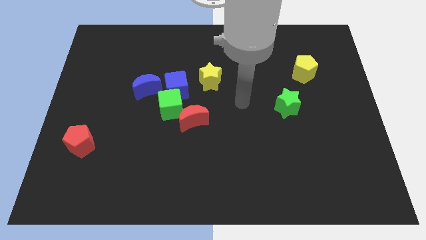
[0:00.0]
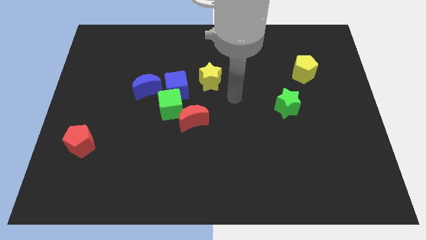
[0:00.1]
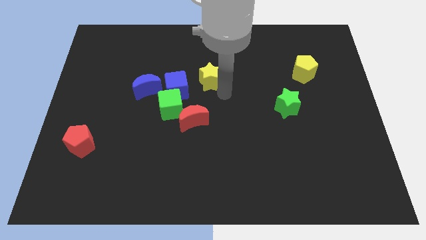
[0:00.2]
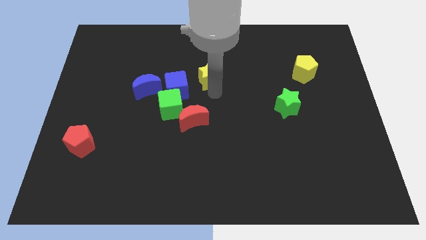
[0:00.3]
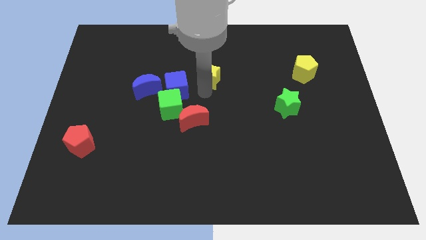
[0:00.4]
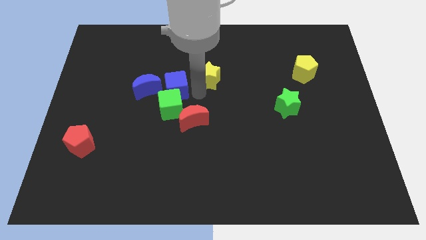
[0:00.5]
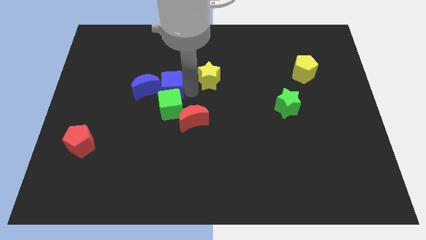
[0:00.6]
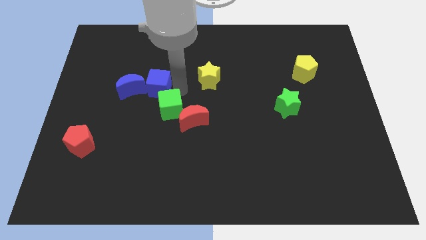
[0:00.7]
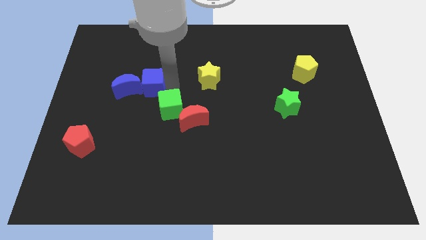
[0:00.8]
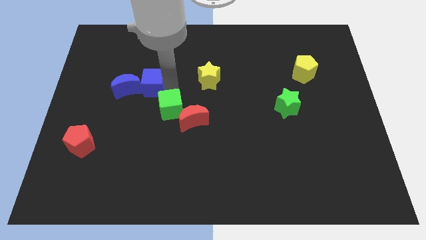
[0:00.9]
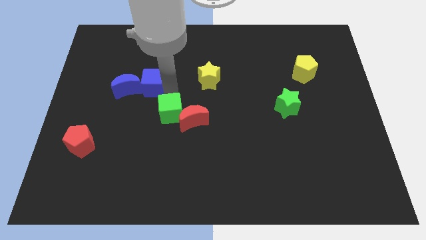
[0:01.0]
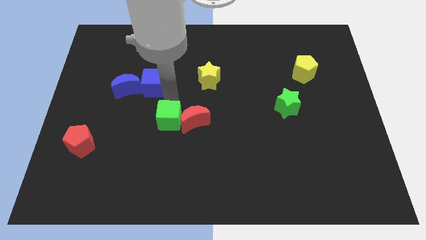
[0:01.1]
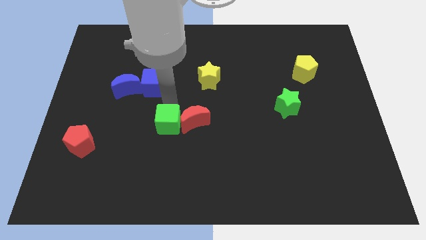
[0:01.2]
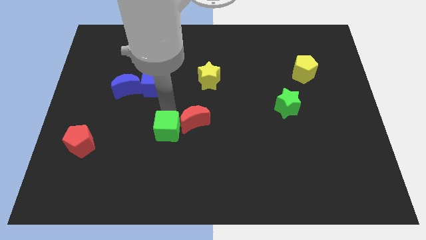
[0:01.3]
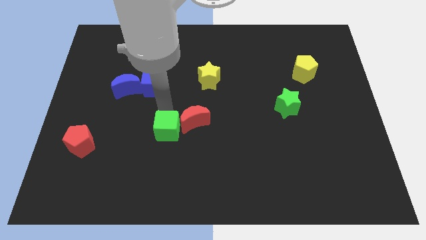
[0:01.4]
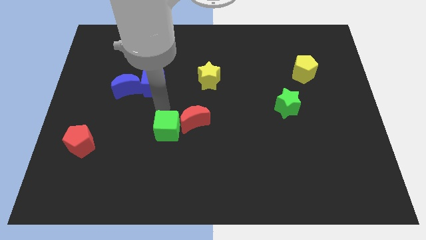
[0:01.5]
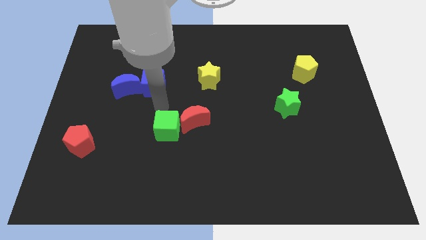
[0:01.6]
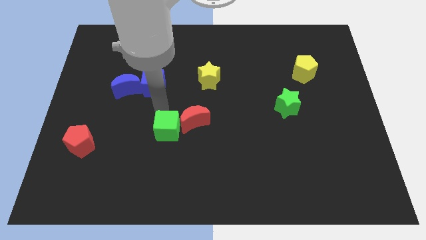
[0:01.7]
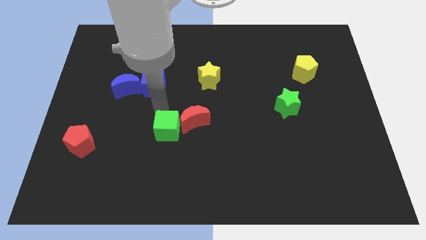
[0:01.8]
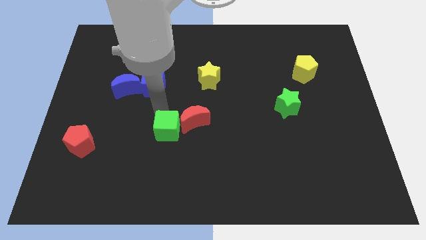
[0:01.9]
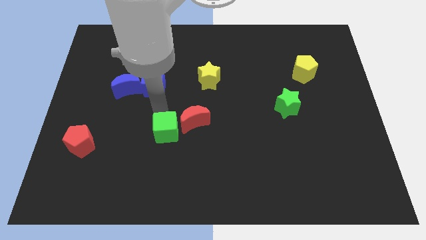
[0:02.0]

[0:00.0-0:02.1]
pull the green cube apart from the group

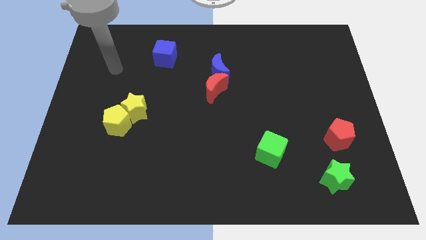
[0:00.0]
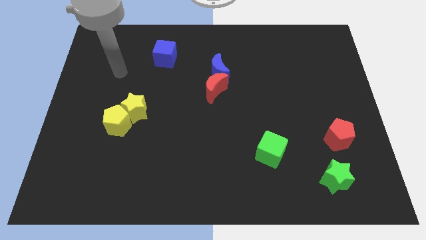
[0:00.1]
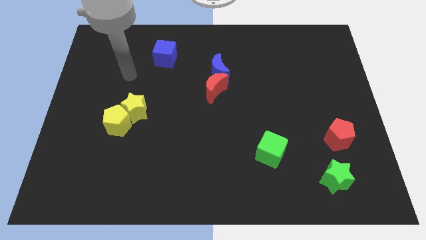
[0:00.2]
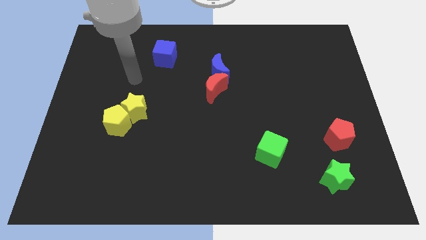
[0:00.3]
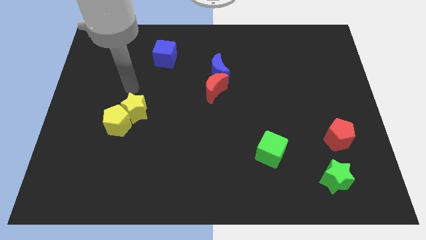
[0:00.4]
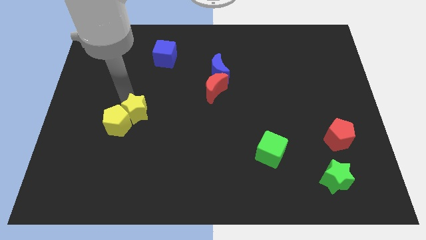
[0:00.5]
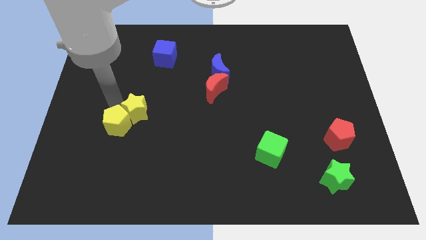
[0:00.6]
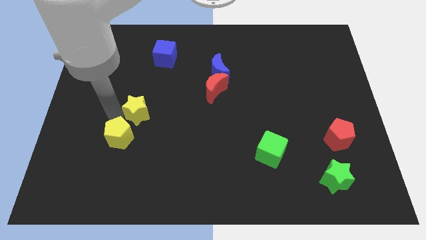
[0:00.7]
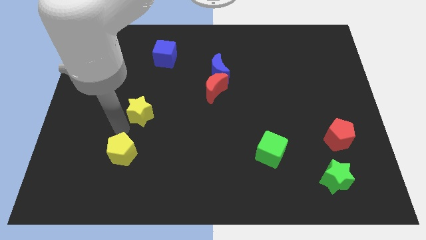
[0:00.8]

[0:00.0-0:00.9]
pull the yellow star apart from the yellow pentagon

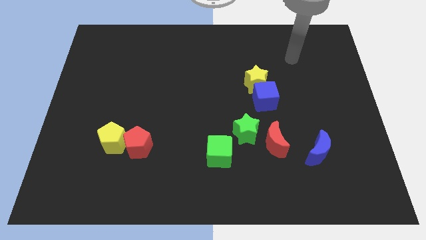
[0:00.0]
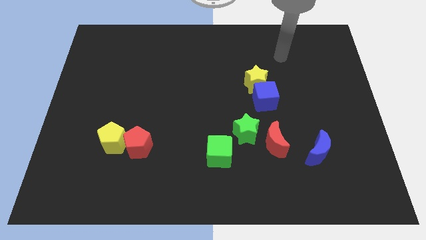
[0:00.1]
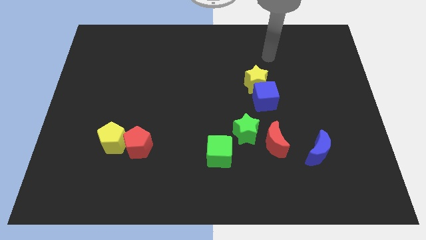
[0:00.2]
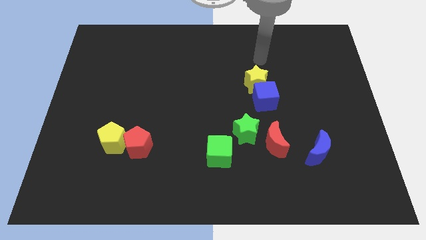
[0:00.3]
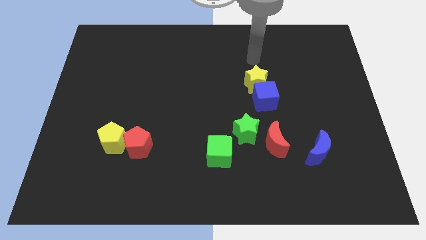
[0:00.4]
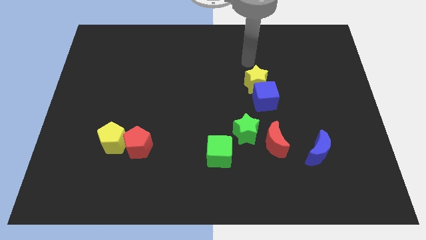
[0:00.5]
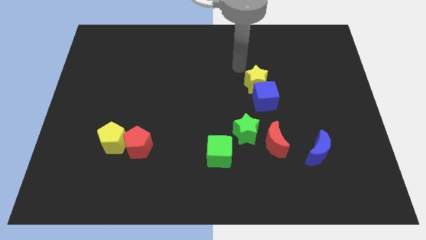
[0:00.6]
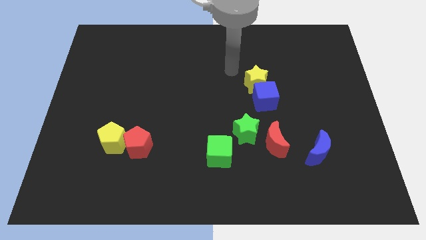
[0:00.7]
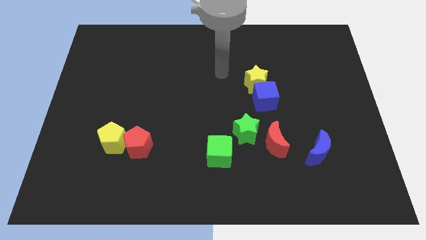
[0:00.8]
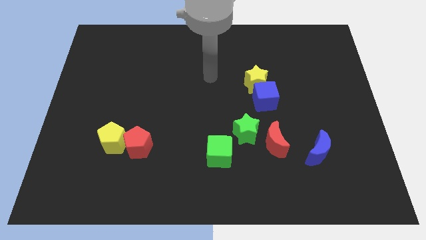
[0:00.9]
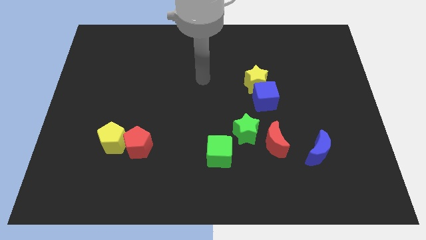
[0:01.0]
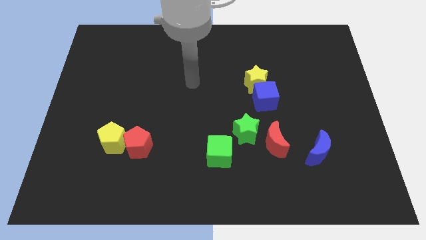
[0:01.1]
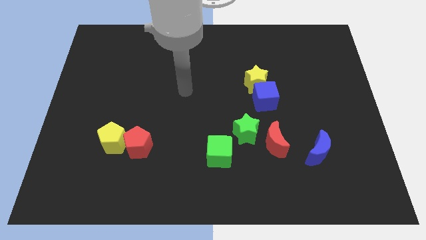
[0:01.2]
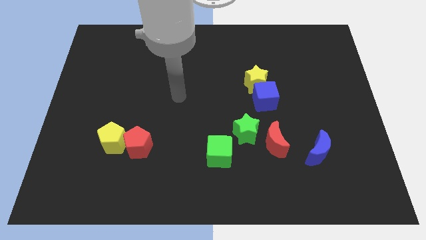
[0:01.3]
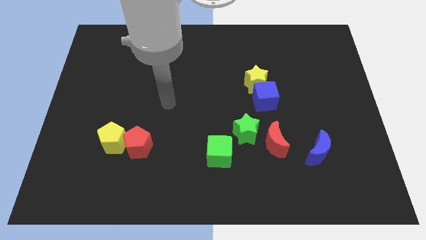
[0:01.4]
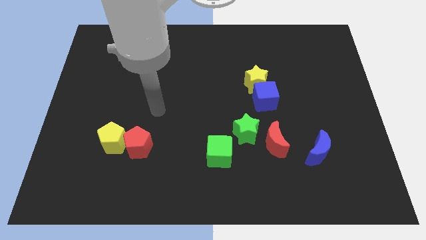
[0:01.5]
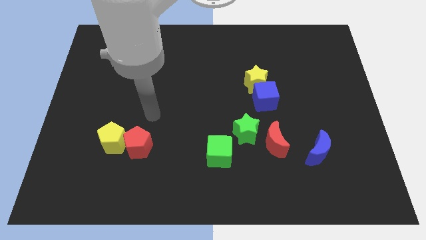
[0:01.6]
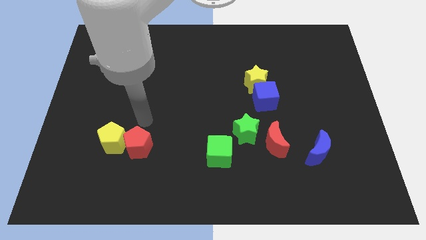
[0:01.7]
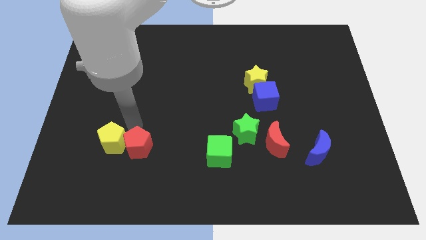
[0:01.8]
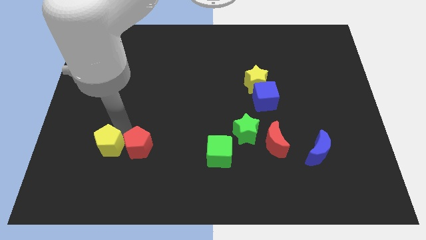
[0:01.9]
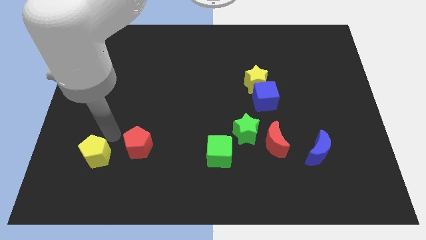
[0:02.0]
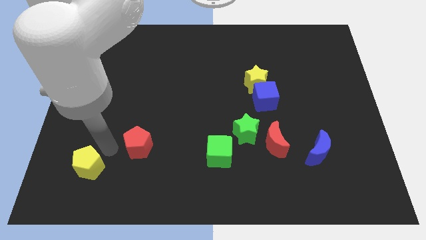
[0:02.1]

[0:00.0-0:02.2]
move the red pentagon away from the yellow pentagon

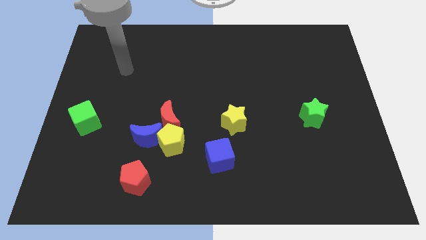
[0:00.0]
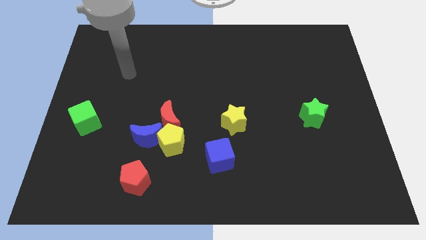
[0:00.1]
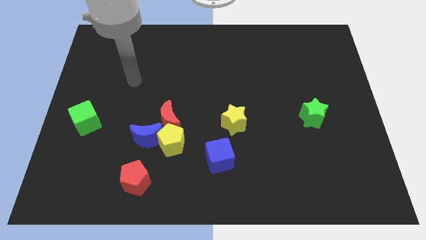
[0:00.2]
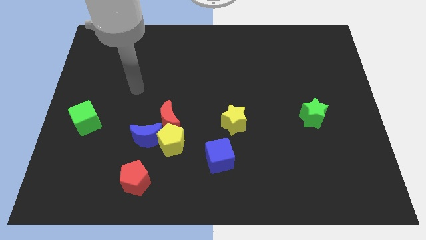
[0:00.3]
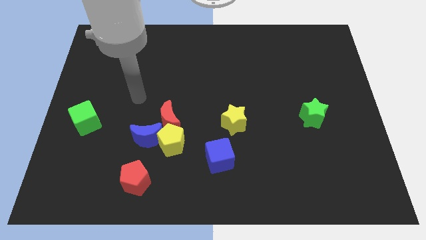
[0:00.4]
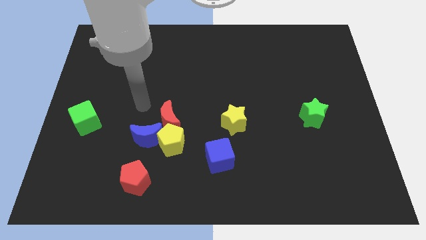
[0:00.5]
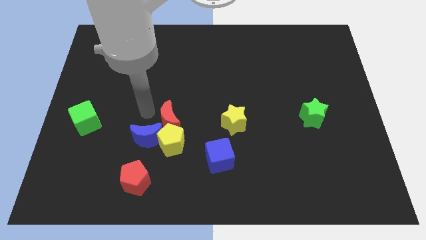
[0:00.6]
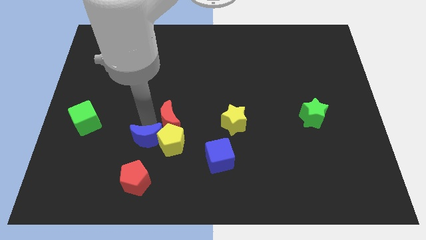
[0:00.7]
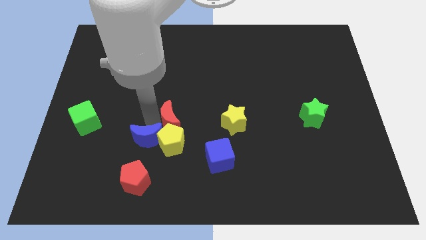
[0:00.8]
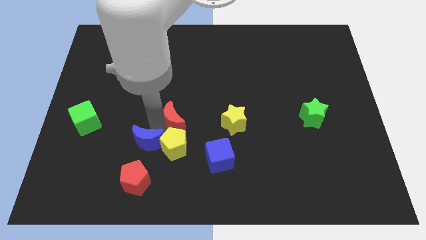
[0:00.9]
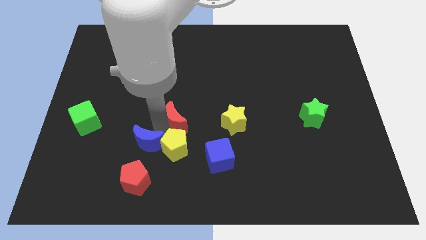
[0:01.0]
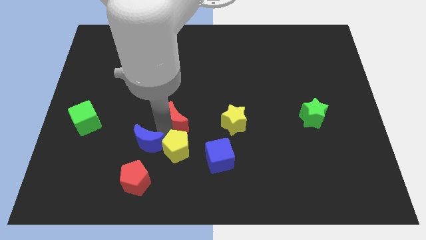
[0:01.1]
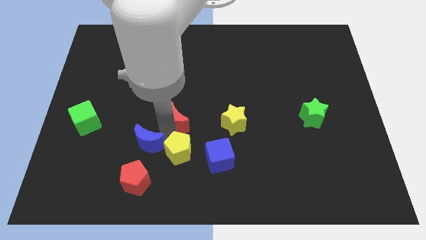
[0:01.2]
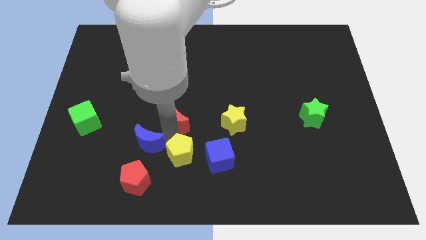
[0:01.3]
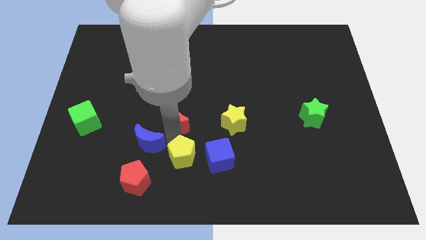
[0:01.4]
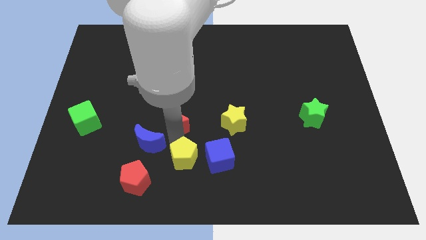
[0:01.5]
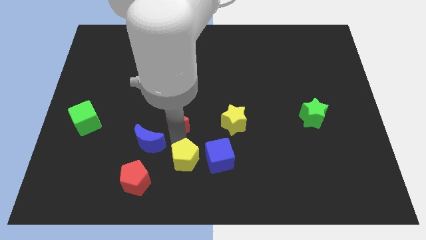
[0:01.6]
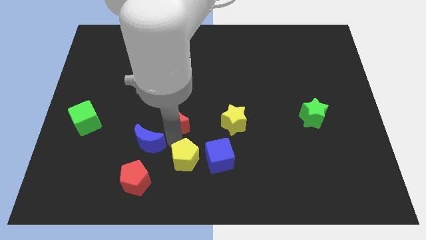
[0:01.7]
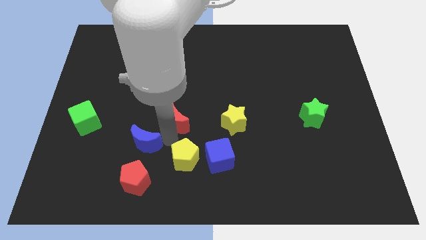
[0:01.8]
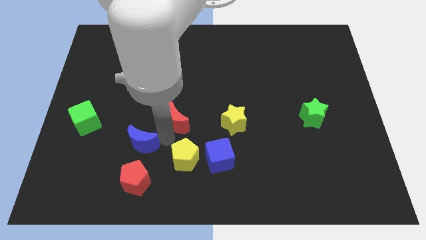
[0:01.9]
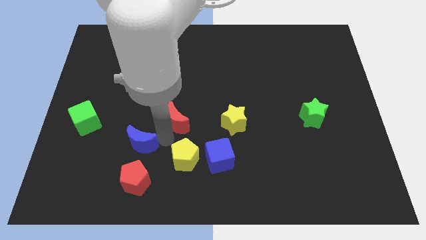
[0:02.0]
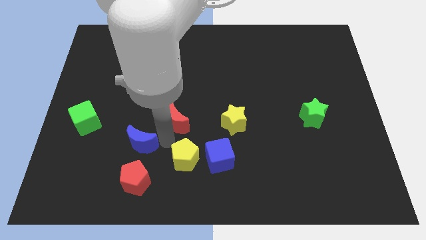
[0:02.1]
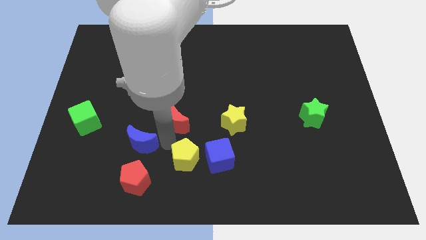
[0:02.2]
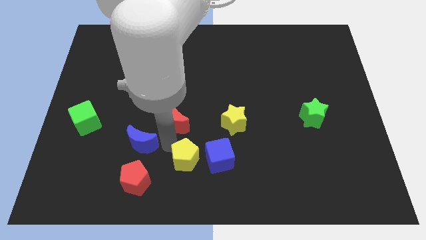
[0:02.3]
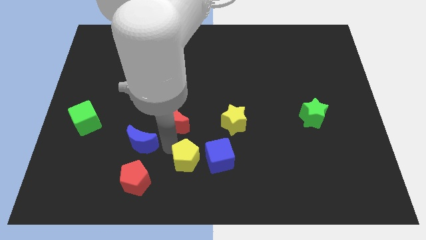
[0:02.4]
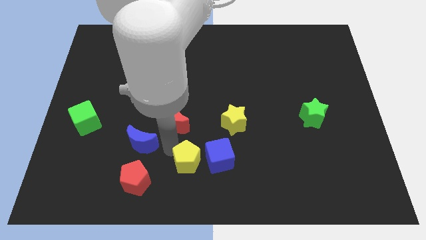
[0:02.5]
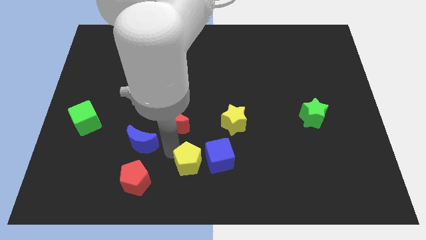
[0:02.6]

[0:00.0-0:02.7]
pull the yellow pentagon apart from the blue moon and red moon

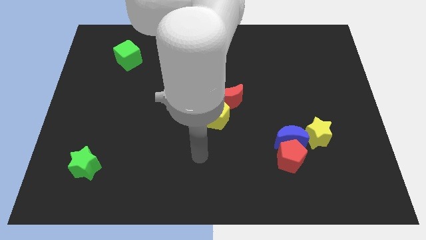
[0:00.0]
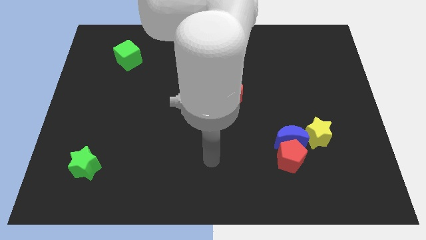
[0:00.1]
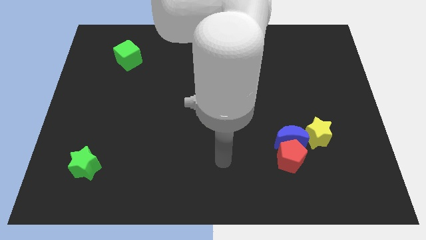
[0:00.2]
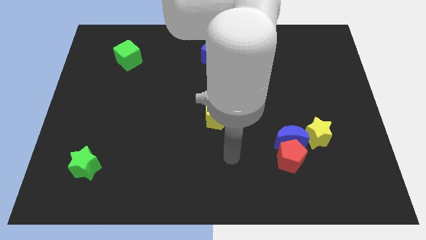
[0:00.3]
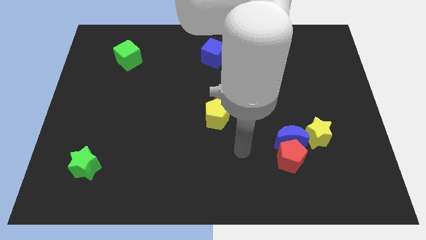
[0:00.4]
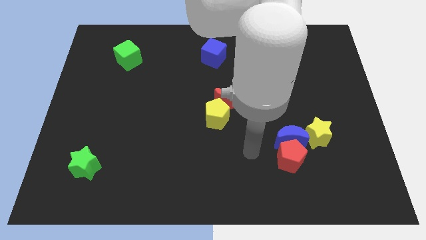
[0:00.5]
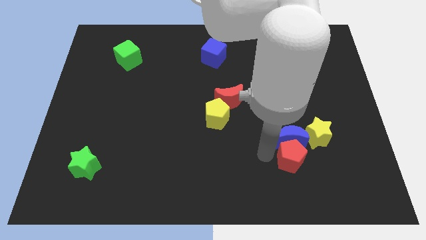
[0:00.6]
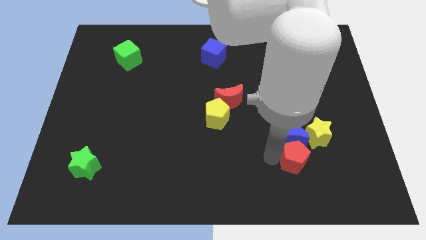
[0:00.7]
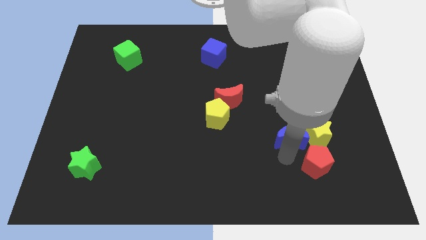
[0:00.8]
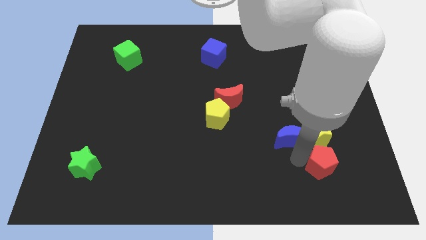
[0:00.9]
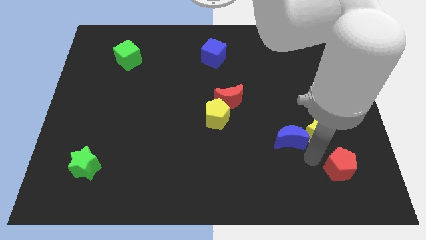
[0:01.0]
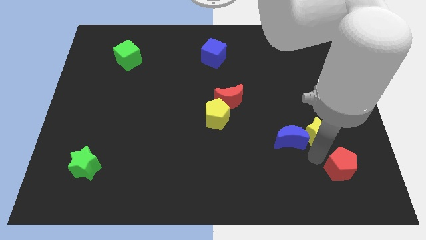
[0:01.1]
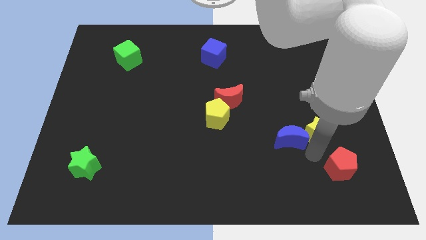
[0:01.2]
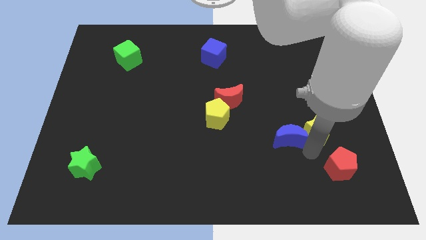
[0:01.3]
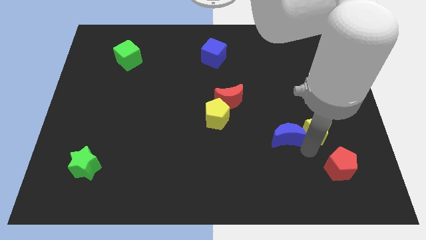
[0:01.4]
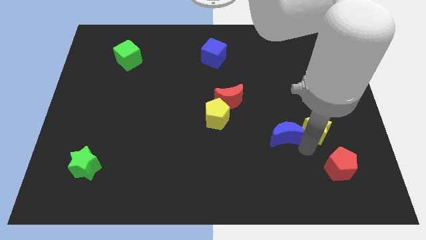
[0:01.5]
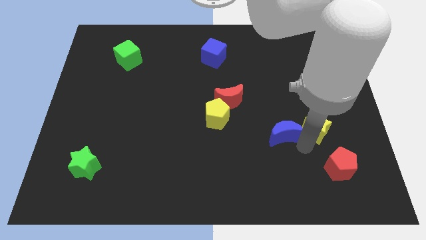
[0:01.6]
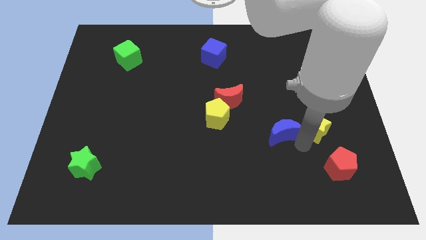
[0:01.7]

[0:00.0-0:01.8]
pull the blue moon apart from the red pentagon and yellow star
